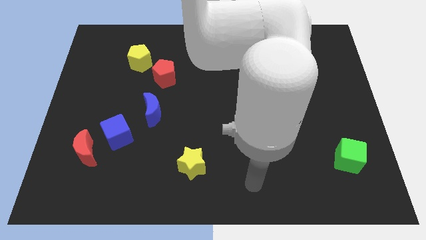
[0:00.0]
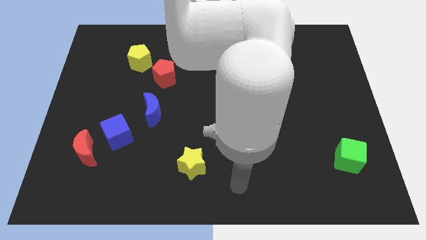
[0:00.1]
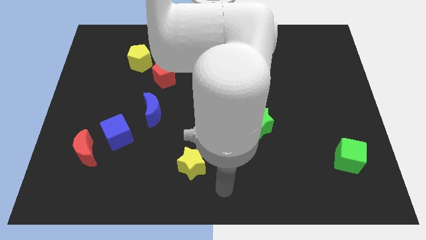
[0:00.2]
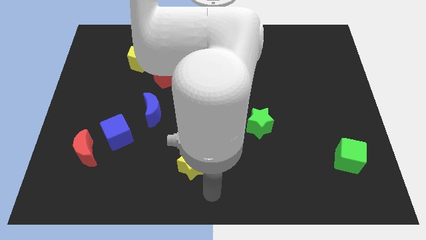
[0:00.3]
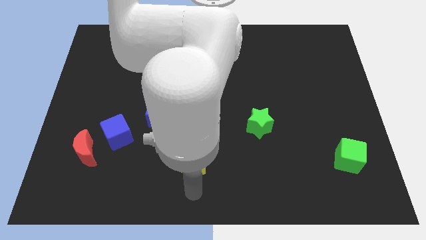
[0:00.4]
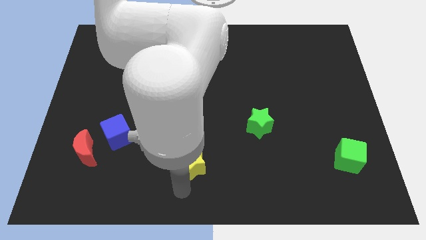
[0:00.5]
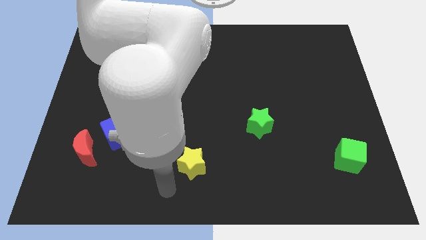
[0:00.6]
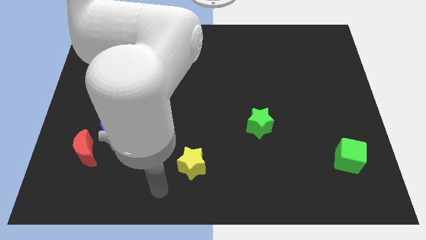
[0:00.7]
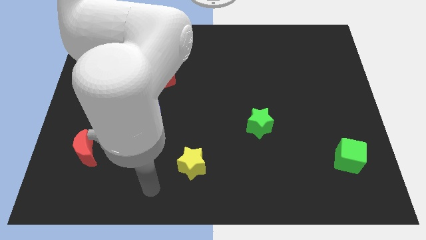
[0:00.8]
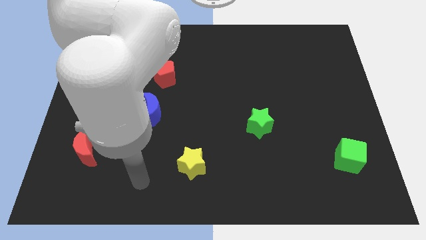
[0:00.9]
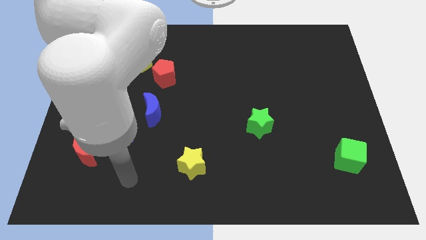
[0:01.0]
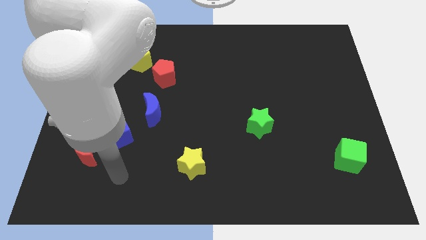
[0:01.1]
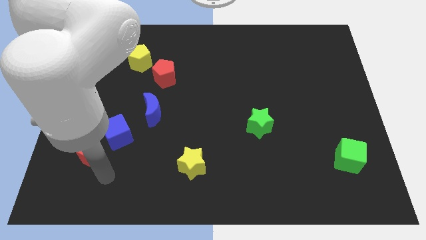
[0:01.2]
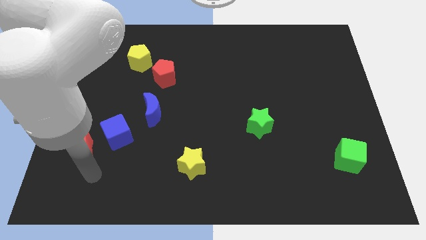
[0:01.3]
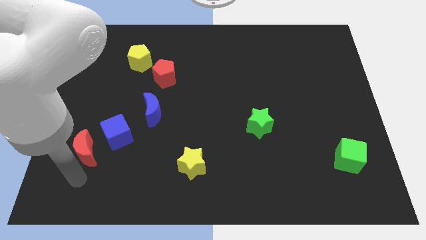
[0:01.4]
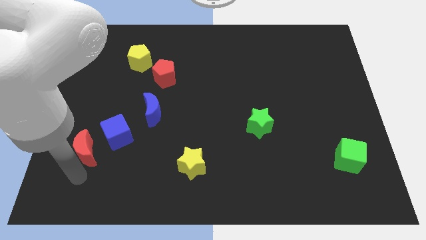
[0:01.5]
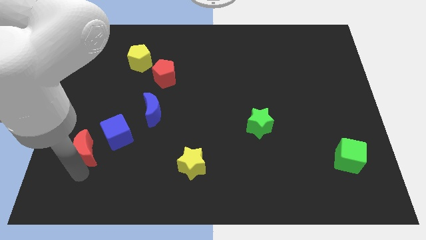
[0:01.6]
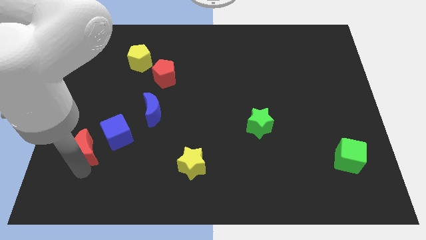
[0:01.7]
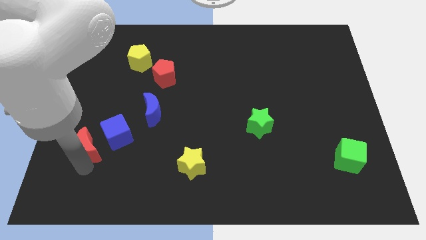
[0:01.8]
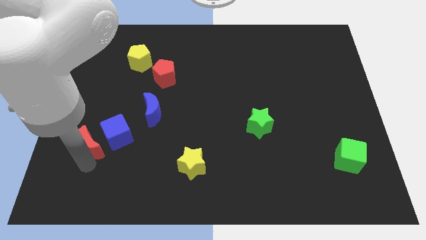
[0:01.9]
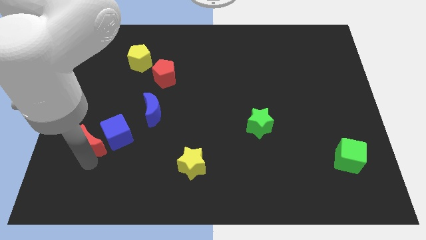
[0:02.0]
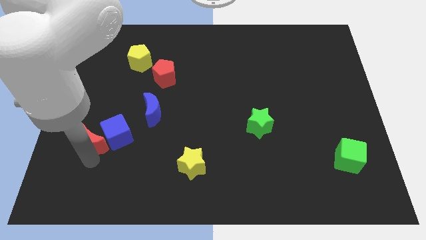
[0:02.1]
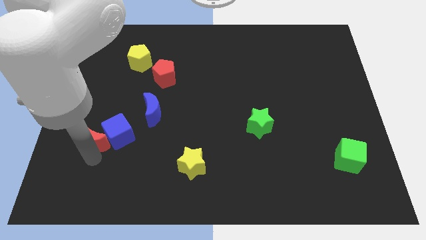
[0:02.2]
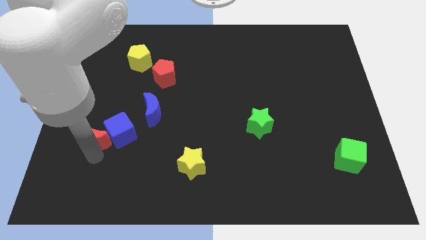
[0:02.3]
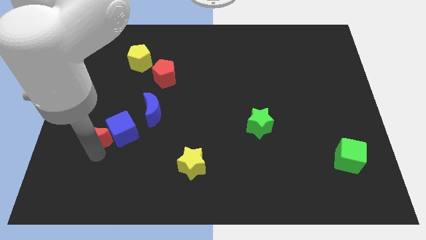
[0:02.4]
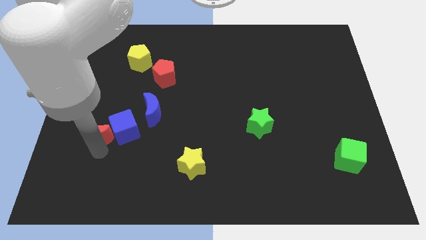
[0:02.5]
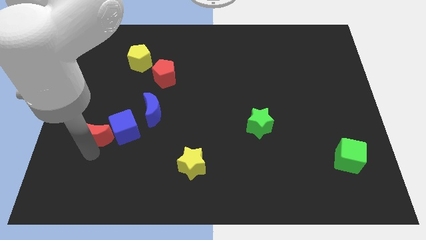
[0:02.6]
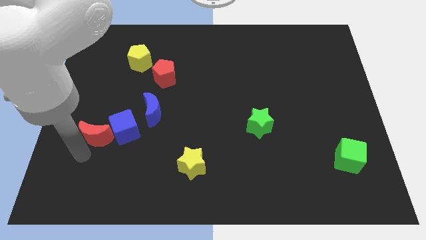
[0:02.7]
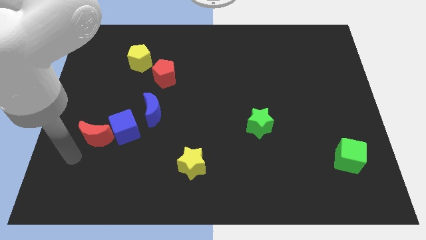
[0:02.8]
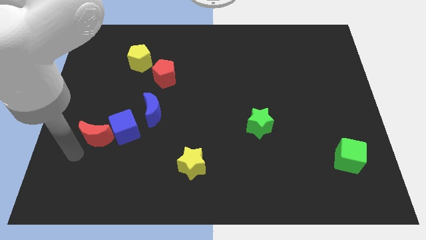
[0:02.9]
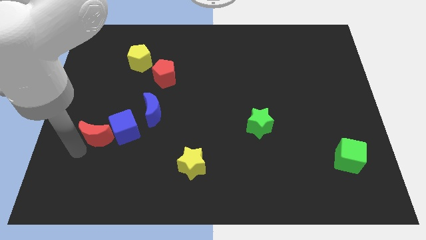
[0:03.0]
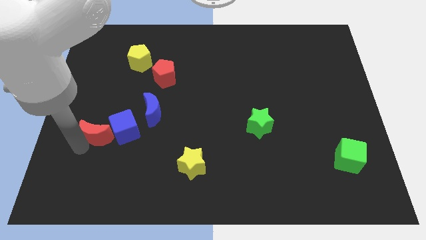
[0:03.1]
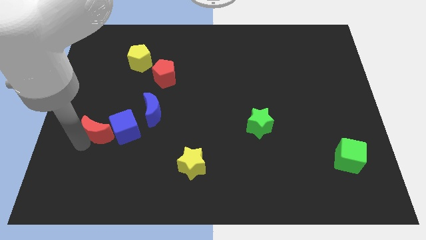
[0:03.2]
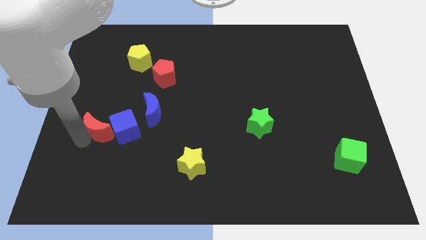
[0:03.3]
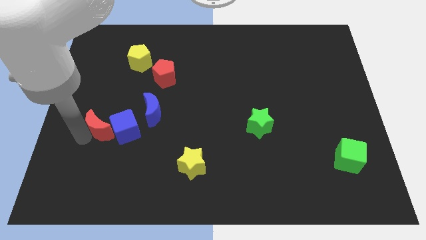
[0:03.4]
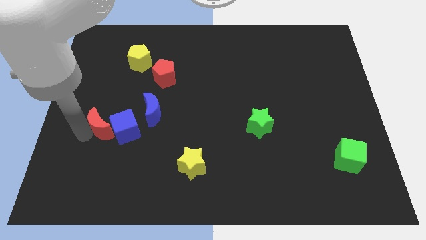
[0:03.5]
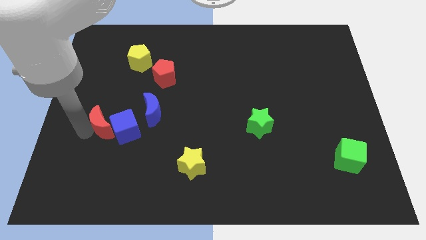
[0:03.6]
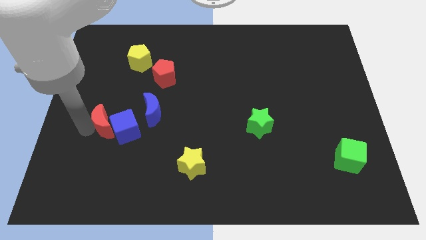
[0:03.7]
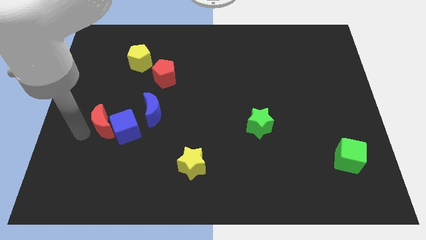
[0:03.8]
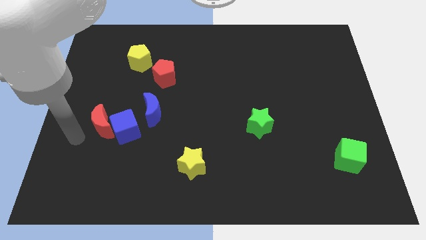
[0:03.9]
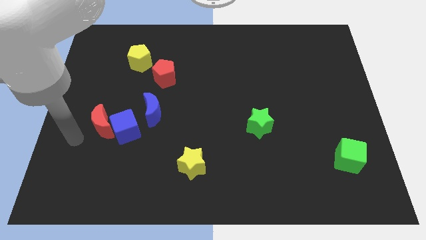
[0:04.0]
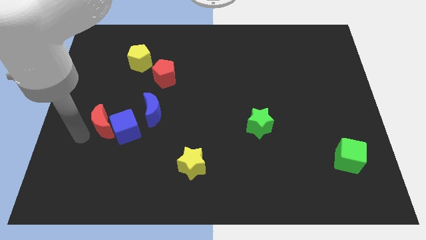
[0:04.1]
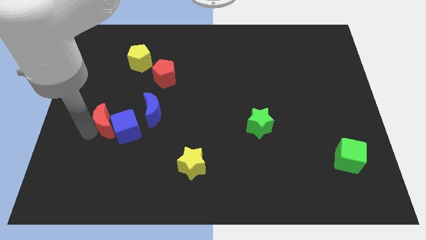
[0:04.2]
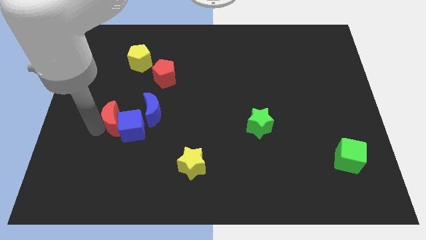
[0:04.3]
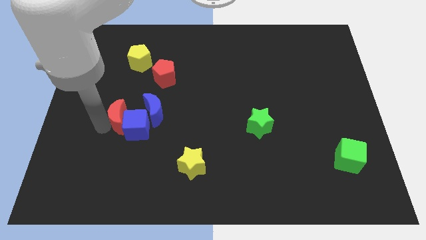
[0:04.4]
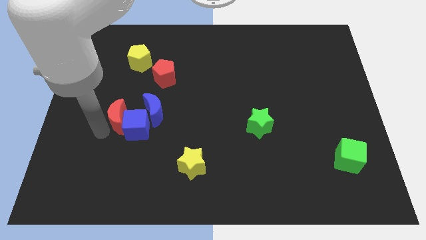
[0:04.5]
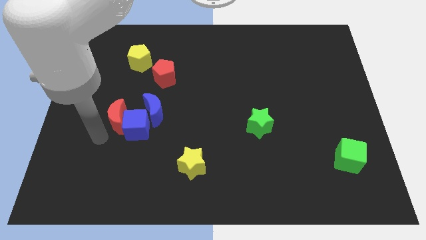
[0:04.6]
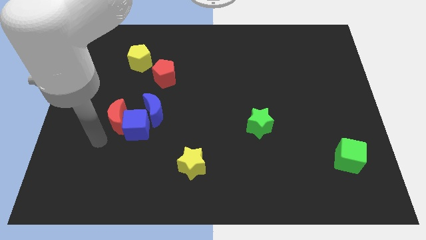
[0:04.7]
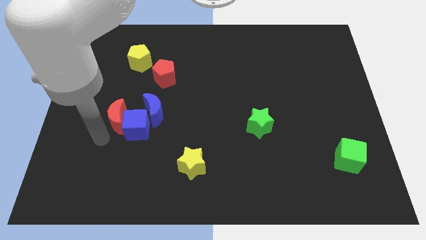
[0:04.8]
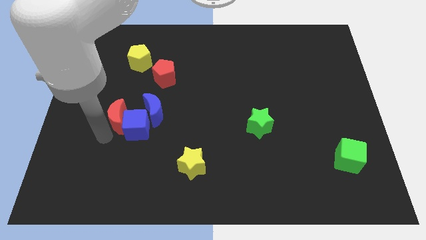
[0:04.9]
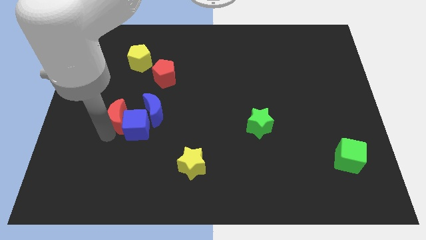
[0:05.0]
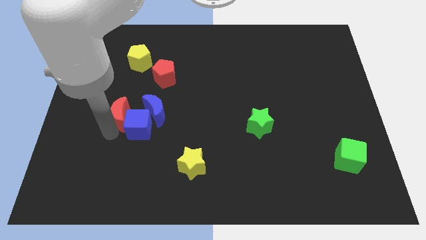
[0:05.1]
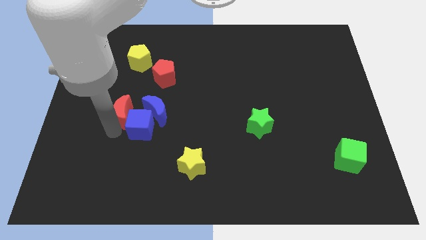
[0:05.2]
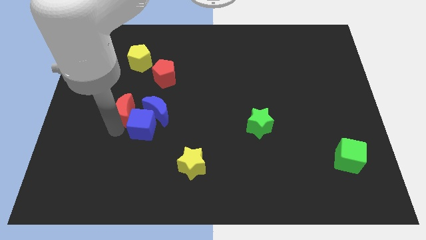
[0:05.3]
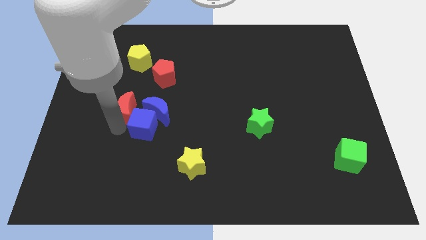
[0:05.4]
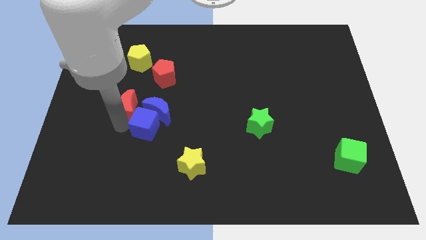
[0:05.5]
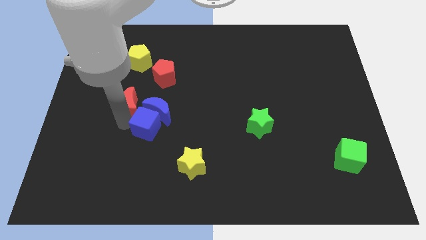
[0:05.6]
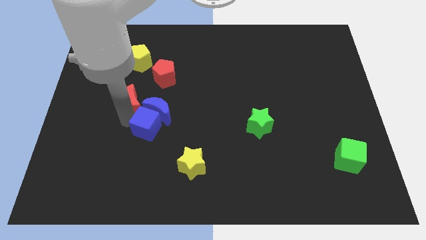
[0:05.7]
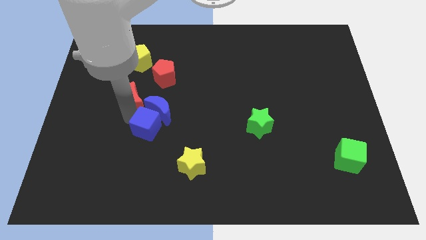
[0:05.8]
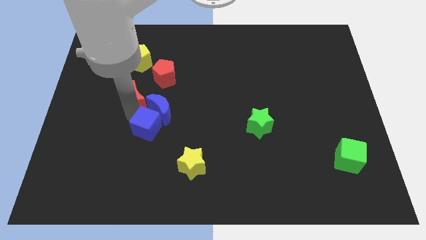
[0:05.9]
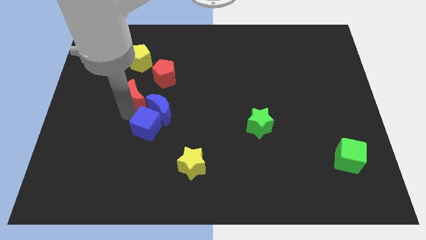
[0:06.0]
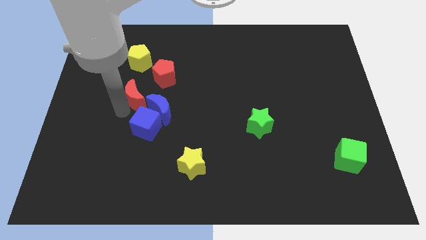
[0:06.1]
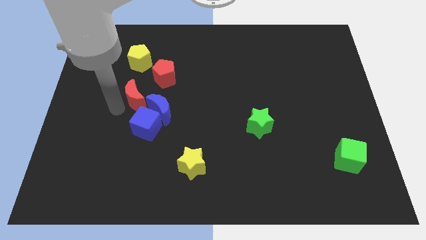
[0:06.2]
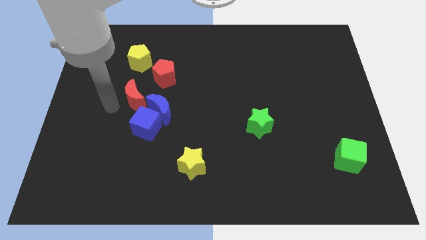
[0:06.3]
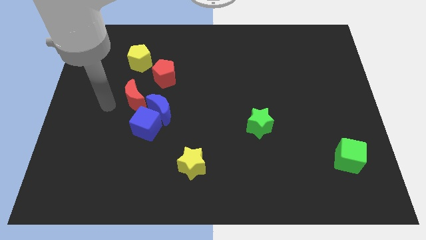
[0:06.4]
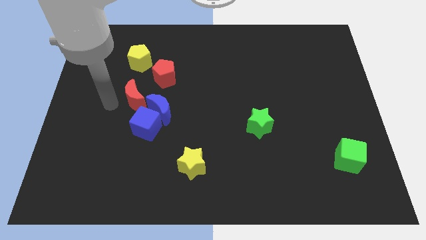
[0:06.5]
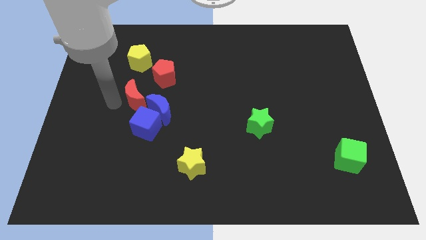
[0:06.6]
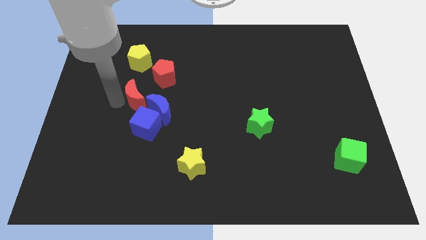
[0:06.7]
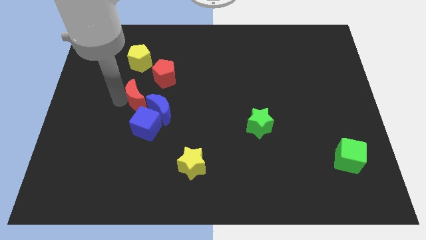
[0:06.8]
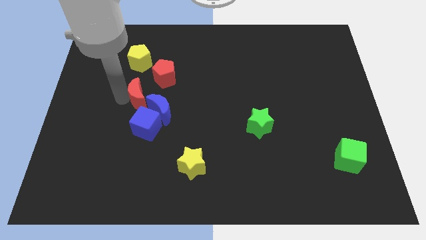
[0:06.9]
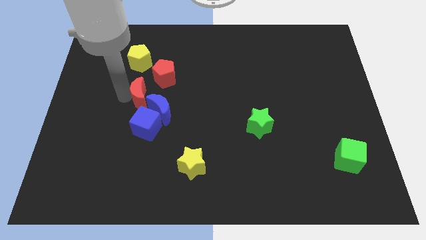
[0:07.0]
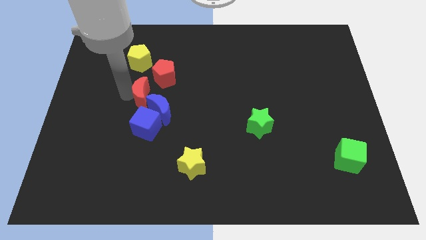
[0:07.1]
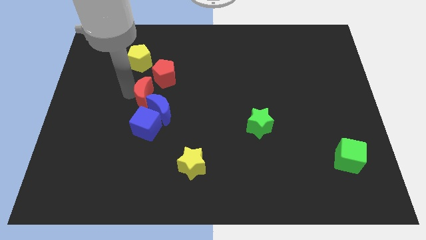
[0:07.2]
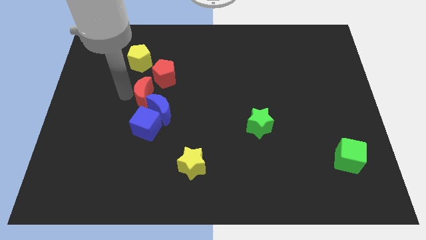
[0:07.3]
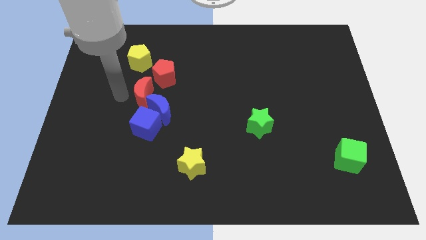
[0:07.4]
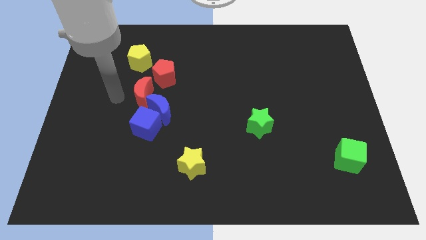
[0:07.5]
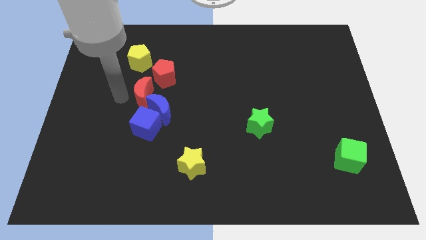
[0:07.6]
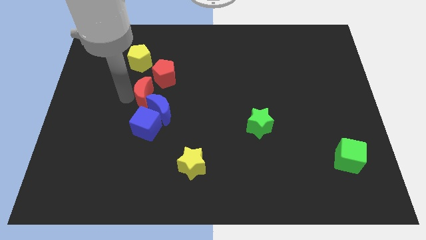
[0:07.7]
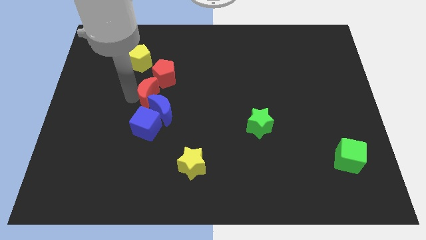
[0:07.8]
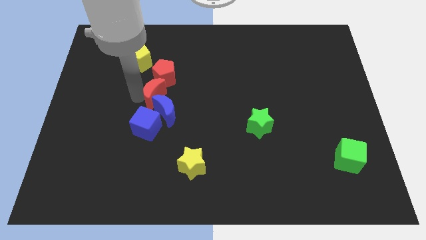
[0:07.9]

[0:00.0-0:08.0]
push the red moon diagonally upwards and to the right

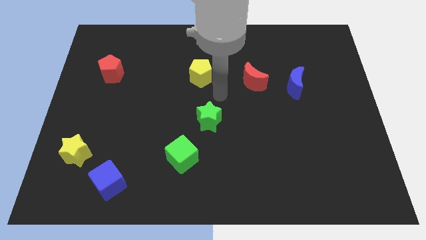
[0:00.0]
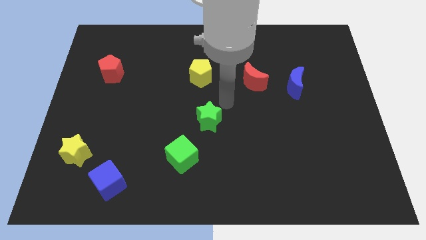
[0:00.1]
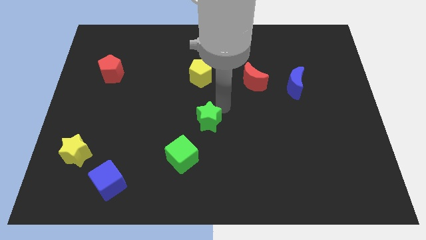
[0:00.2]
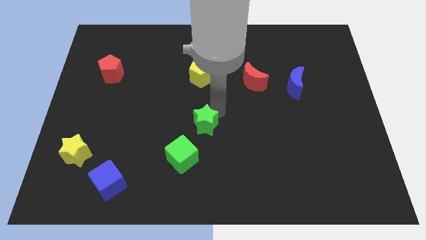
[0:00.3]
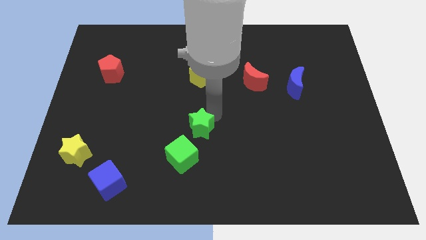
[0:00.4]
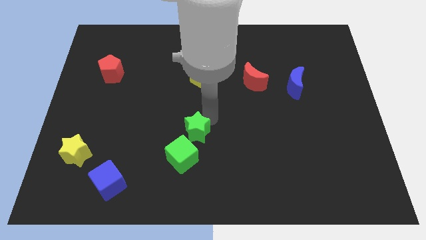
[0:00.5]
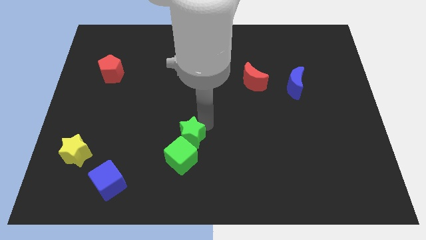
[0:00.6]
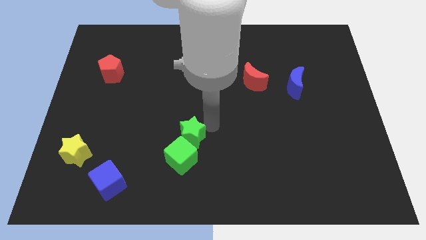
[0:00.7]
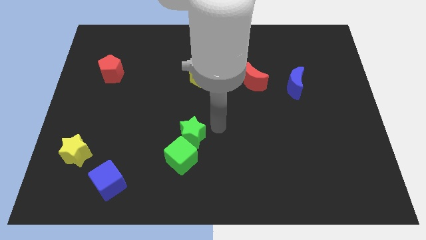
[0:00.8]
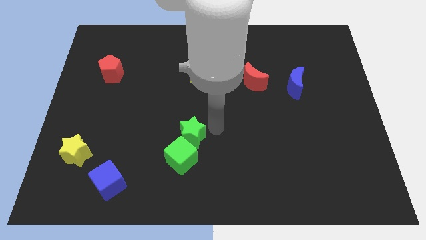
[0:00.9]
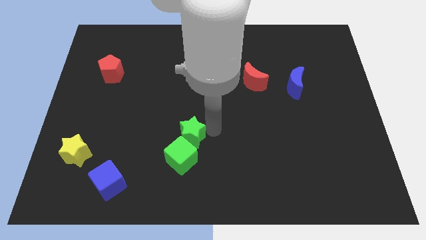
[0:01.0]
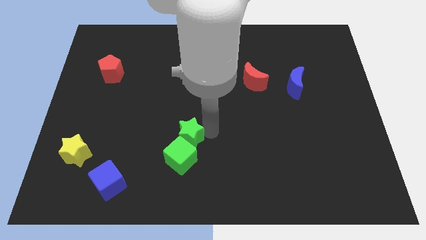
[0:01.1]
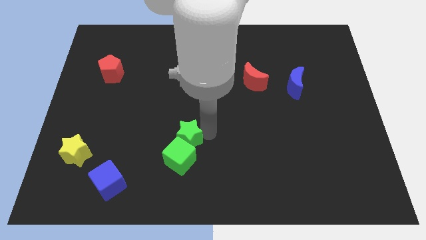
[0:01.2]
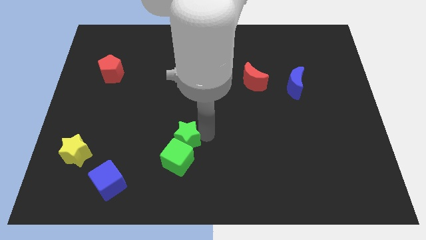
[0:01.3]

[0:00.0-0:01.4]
slide the green star somewhat downwards and left diagonally
